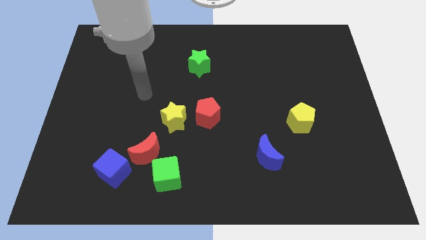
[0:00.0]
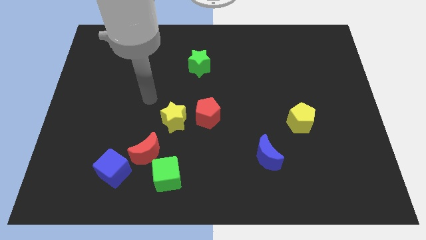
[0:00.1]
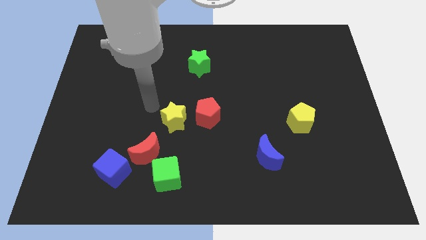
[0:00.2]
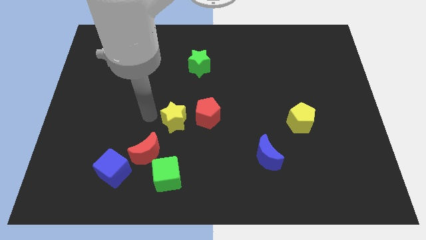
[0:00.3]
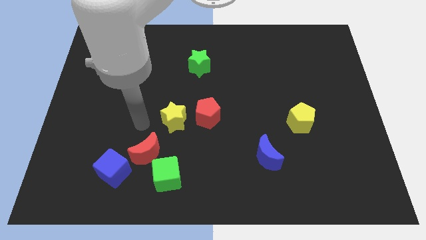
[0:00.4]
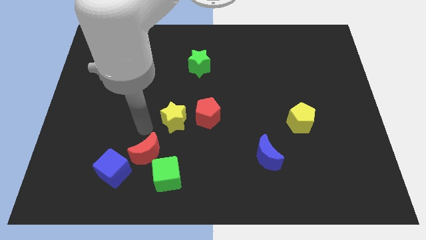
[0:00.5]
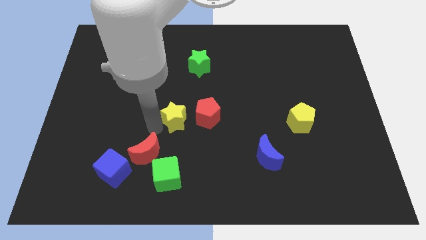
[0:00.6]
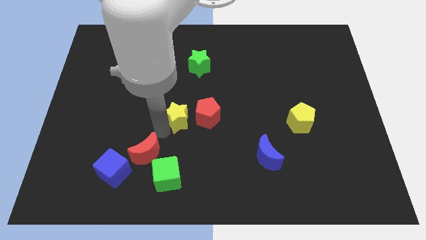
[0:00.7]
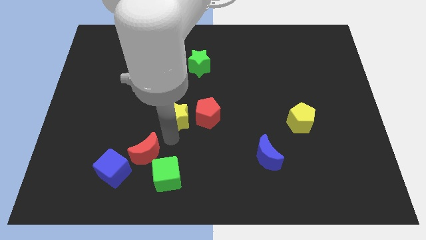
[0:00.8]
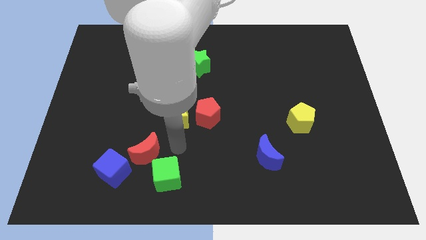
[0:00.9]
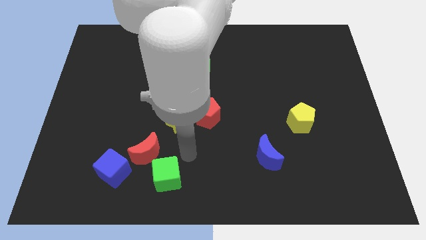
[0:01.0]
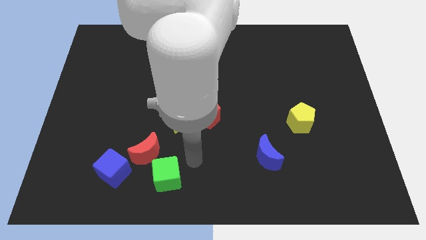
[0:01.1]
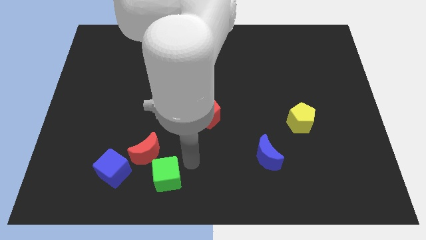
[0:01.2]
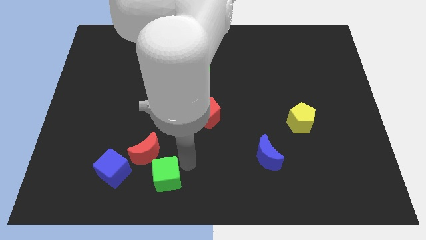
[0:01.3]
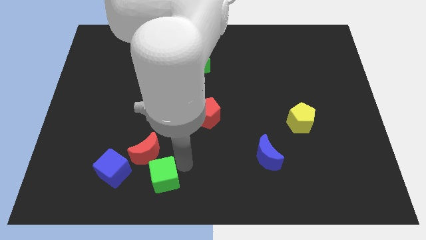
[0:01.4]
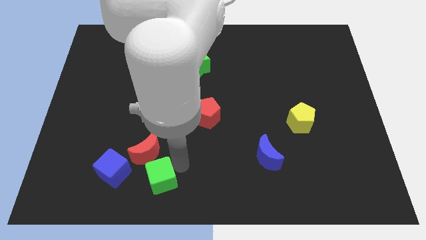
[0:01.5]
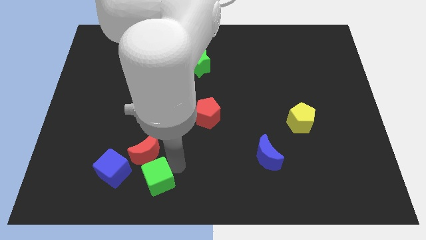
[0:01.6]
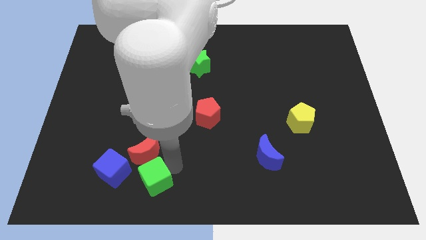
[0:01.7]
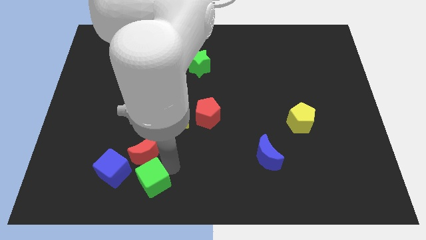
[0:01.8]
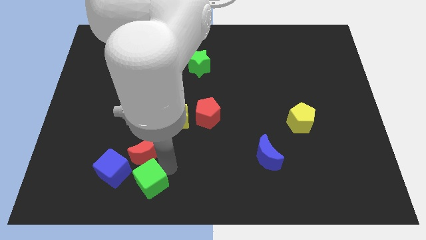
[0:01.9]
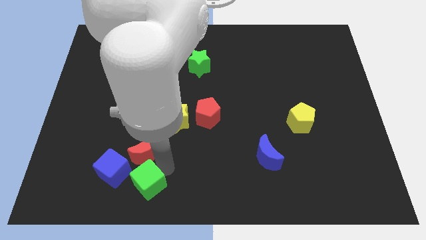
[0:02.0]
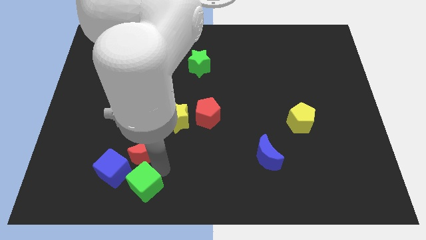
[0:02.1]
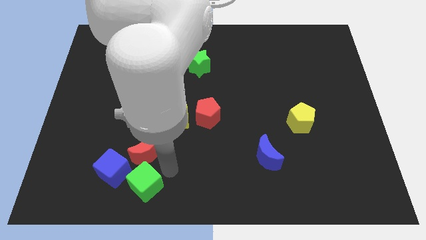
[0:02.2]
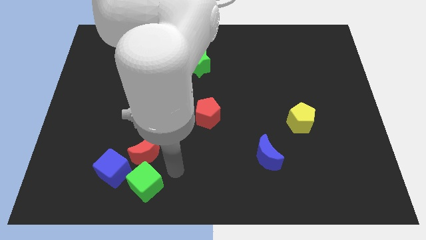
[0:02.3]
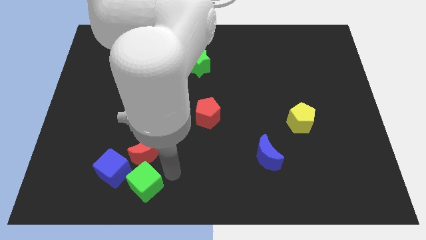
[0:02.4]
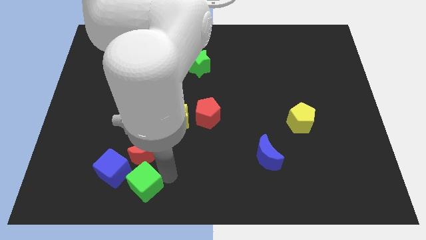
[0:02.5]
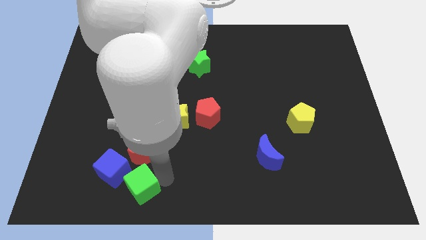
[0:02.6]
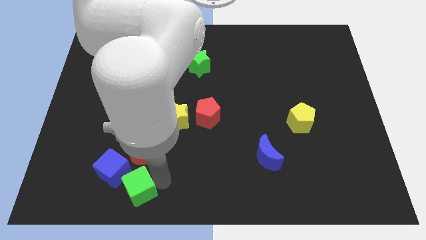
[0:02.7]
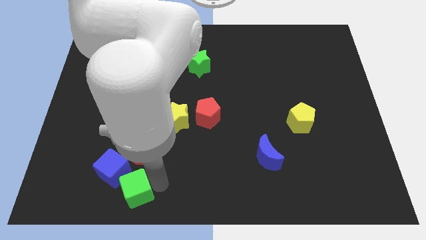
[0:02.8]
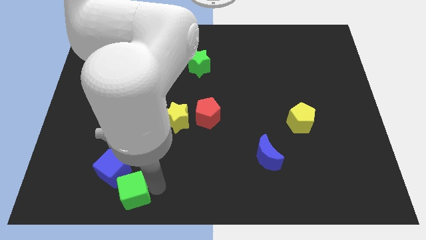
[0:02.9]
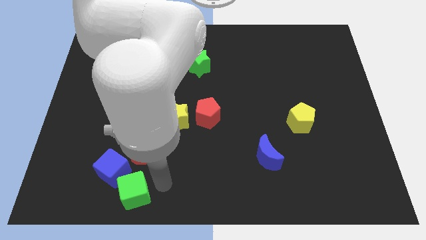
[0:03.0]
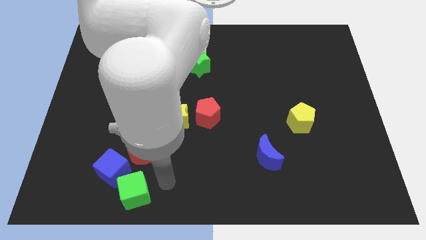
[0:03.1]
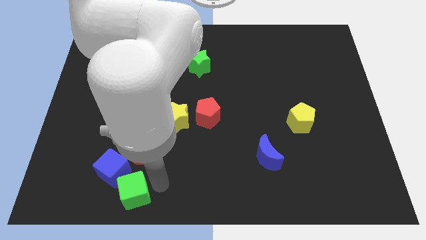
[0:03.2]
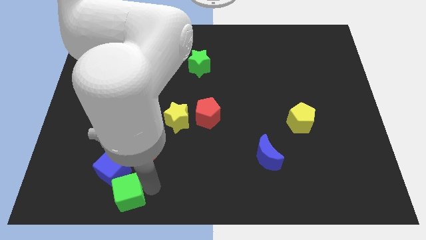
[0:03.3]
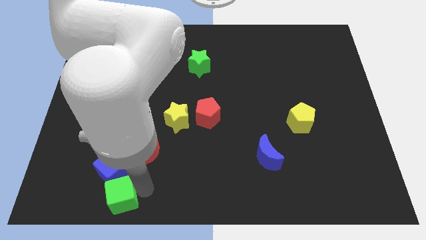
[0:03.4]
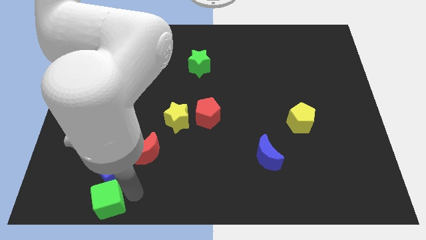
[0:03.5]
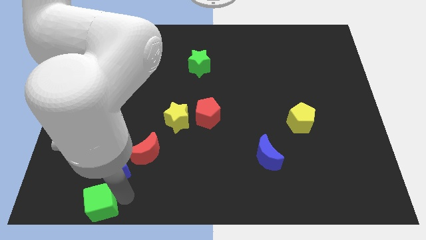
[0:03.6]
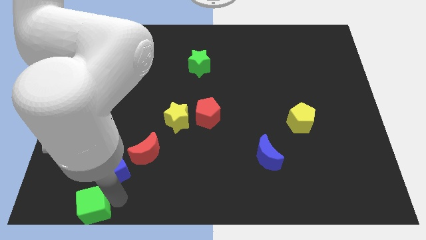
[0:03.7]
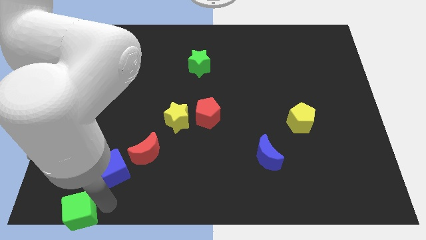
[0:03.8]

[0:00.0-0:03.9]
push the green cube to the lower left corner

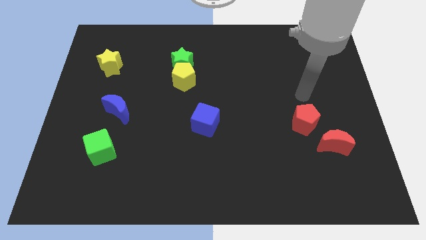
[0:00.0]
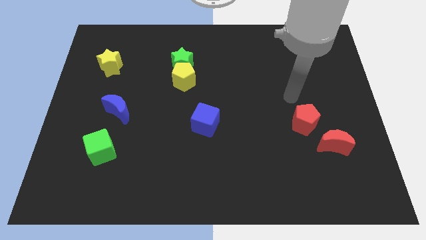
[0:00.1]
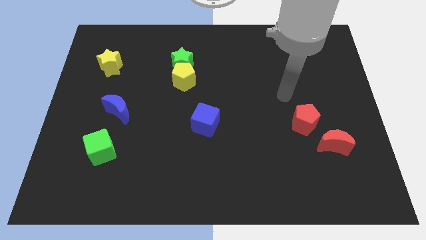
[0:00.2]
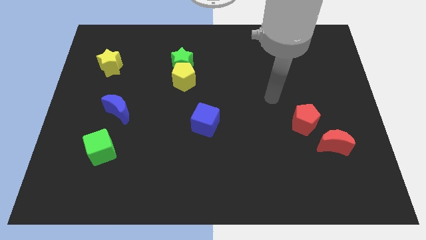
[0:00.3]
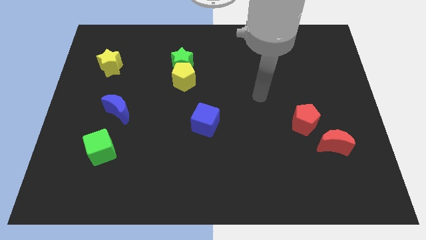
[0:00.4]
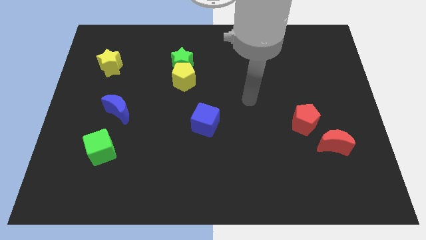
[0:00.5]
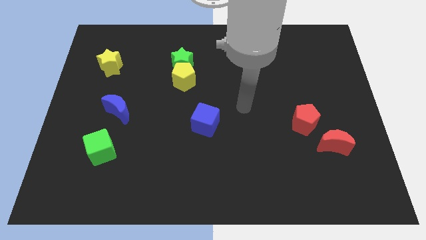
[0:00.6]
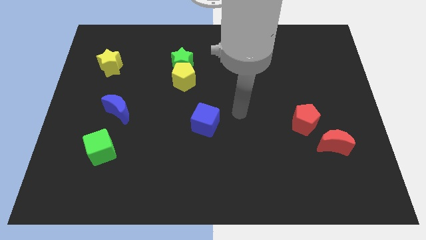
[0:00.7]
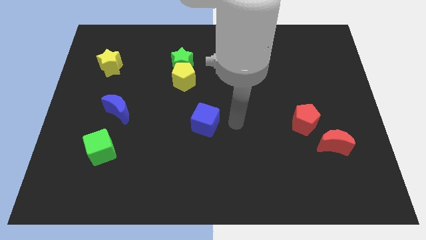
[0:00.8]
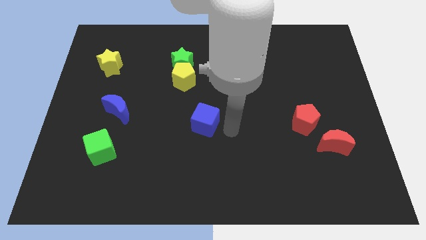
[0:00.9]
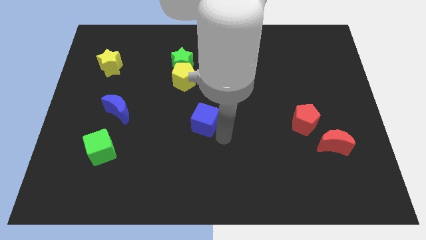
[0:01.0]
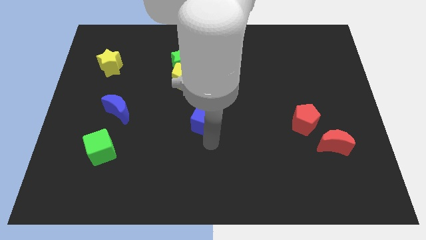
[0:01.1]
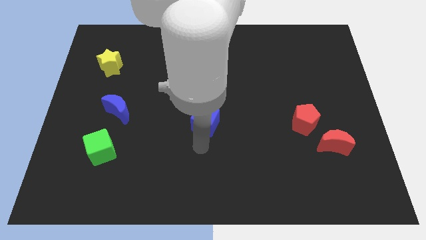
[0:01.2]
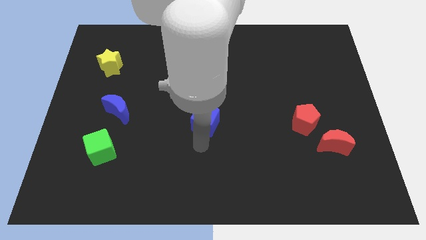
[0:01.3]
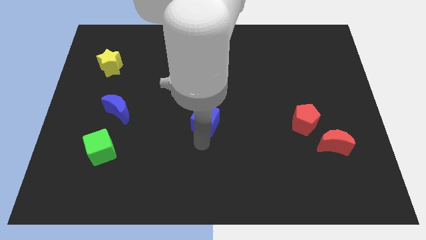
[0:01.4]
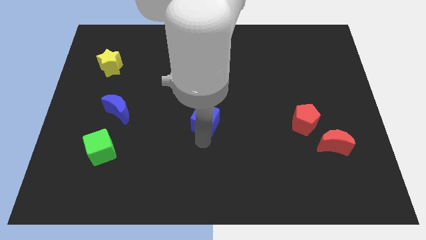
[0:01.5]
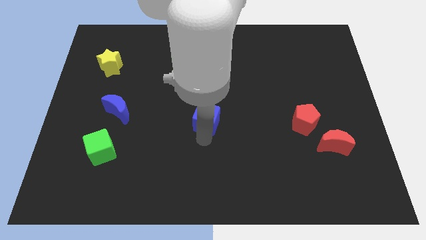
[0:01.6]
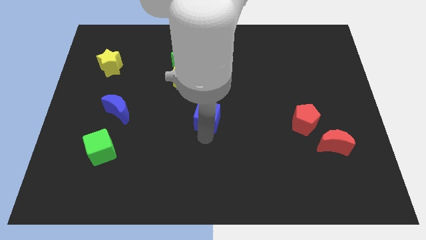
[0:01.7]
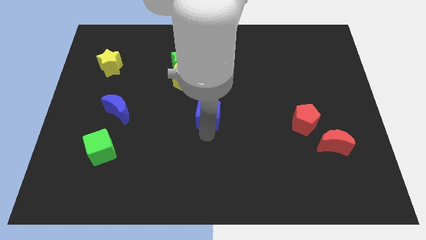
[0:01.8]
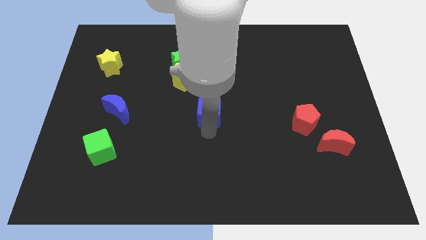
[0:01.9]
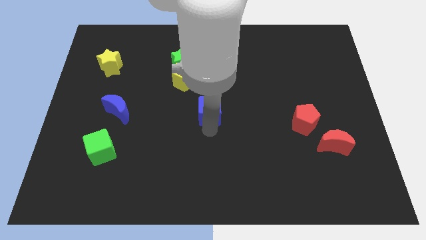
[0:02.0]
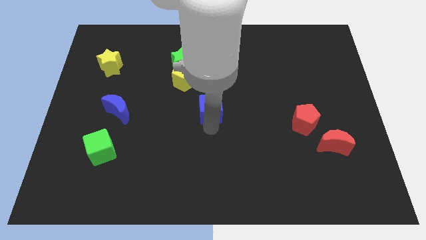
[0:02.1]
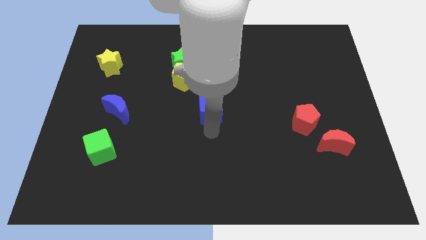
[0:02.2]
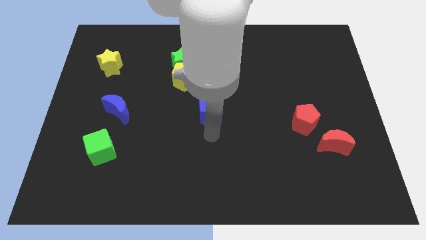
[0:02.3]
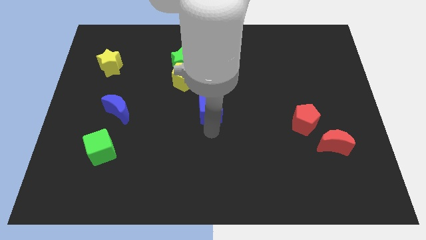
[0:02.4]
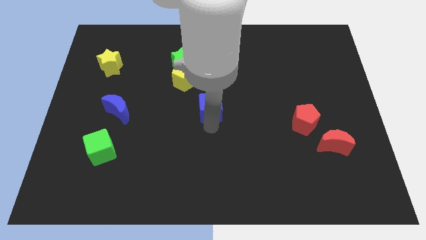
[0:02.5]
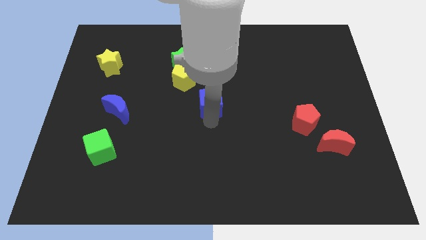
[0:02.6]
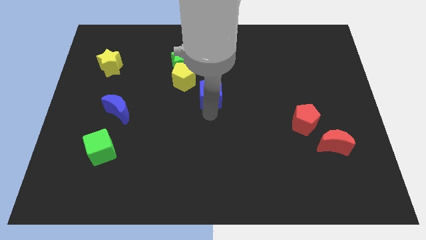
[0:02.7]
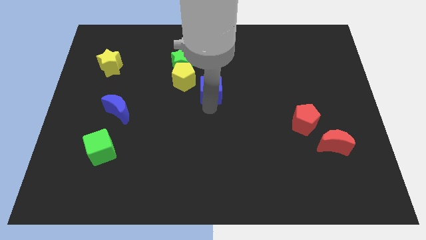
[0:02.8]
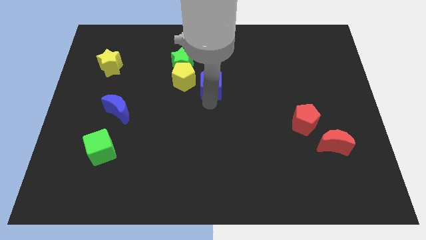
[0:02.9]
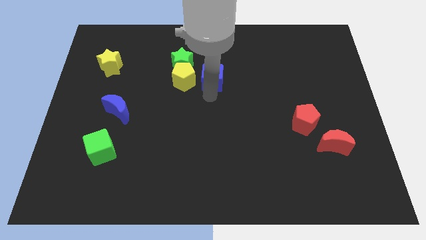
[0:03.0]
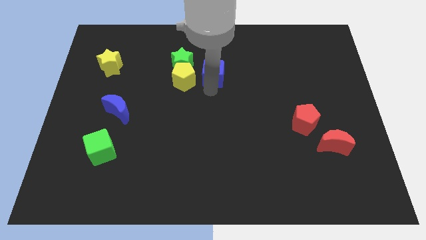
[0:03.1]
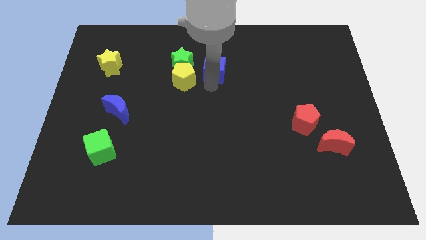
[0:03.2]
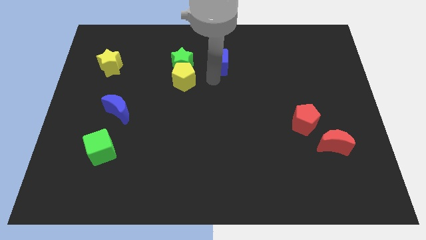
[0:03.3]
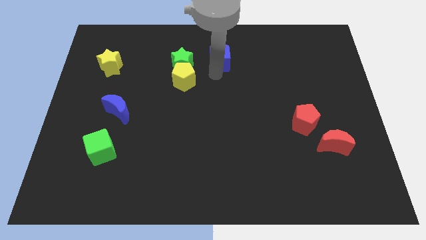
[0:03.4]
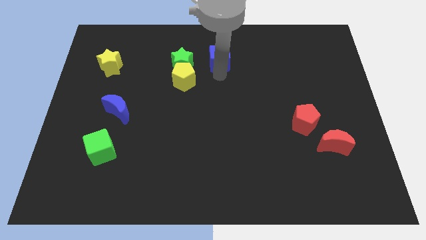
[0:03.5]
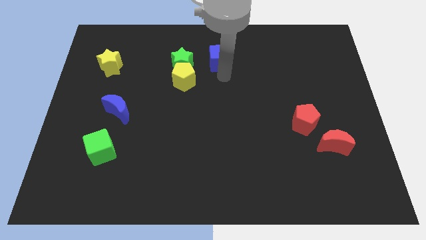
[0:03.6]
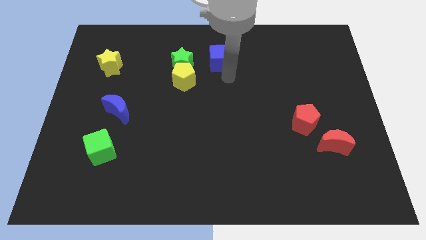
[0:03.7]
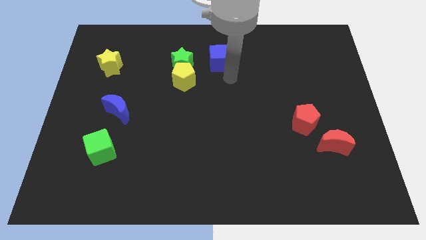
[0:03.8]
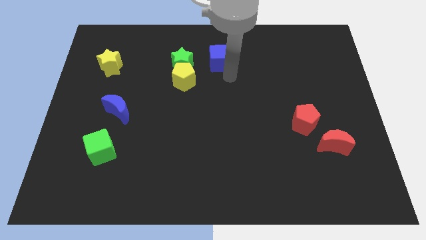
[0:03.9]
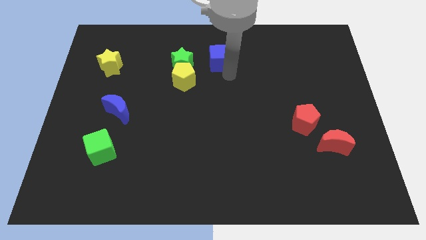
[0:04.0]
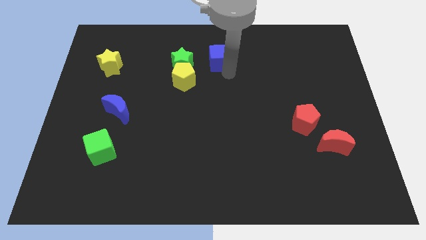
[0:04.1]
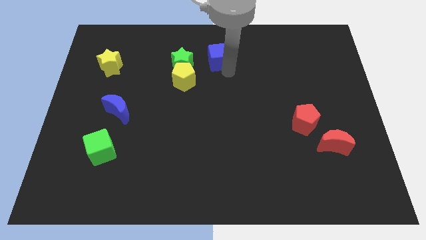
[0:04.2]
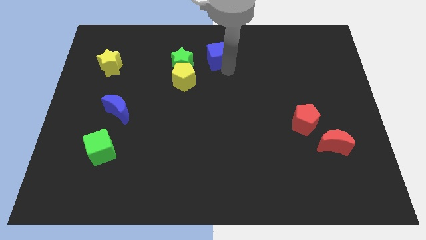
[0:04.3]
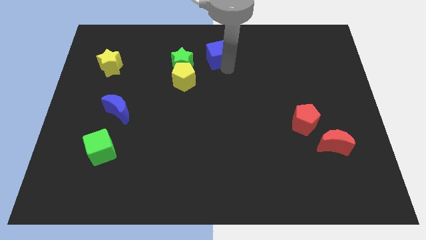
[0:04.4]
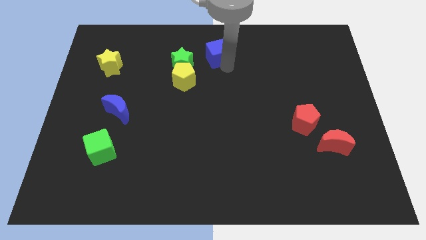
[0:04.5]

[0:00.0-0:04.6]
put the blue cube to the towards your base

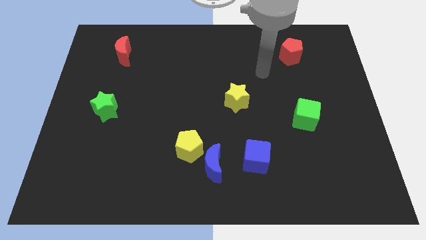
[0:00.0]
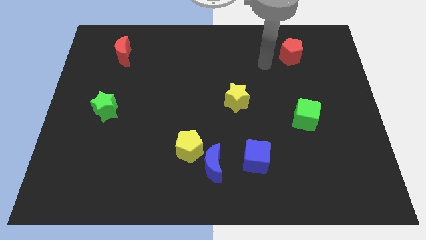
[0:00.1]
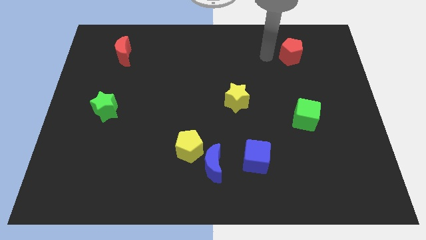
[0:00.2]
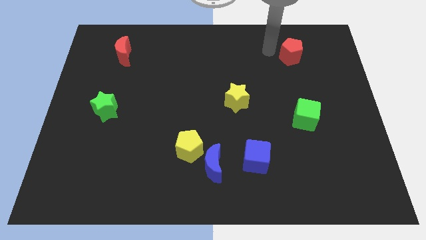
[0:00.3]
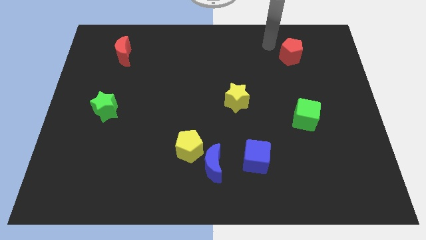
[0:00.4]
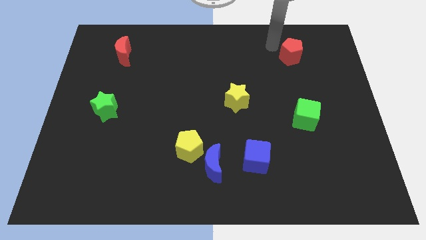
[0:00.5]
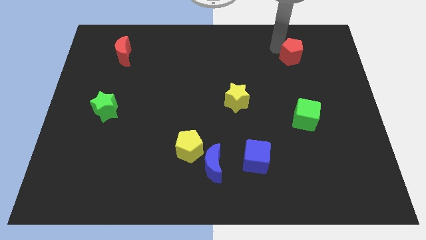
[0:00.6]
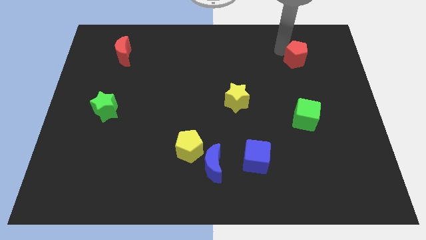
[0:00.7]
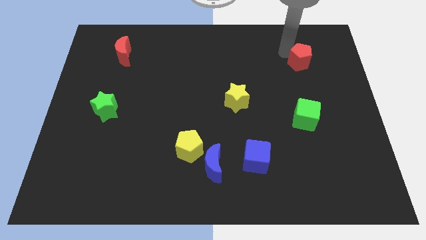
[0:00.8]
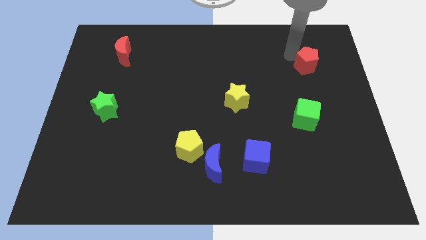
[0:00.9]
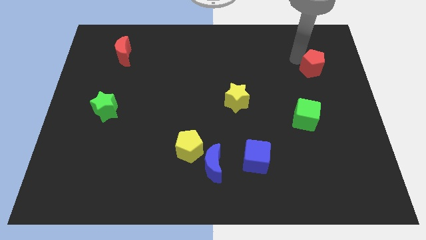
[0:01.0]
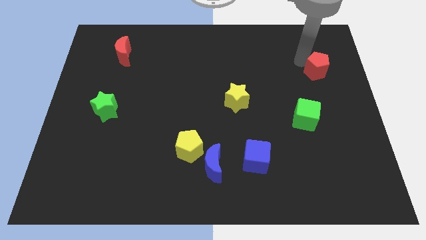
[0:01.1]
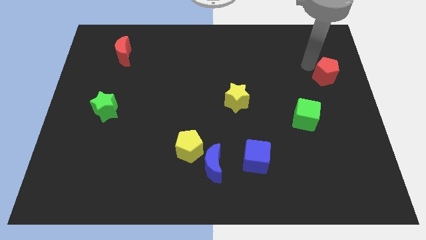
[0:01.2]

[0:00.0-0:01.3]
put the red pentagon to the right side of the board
